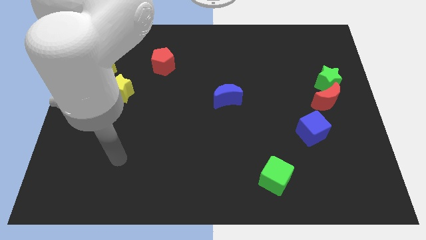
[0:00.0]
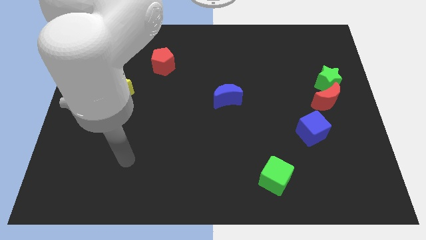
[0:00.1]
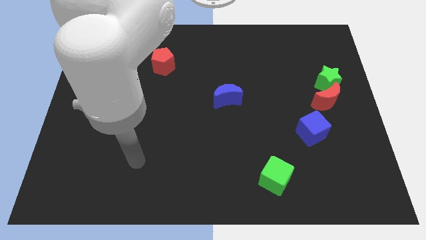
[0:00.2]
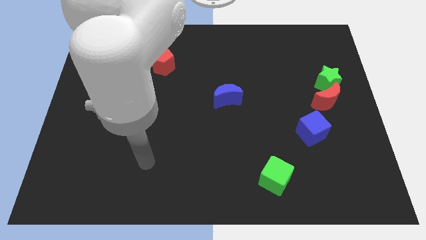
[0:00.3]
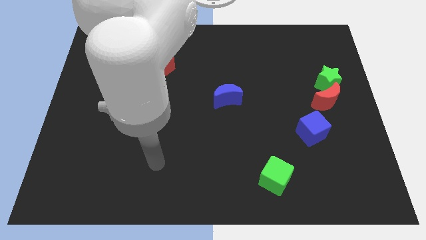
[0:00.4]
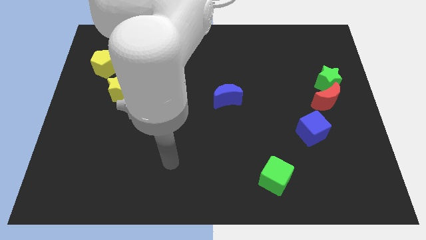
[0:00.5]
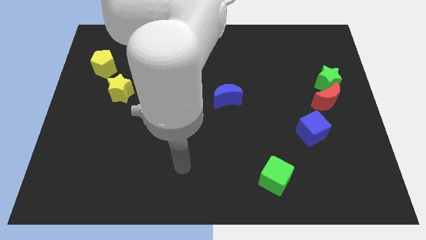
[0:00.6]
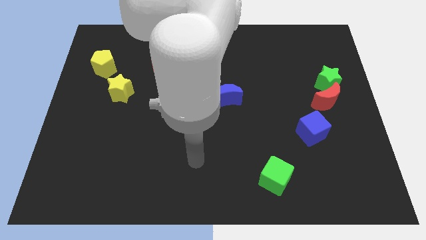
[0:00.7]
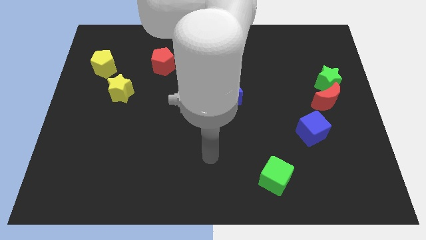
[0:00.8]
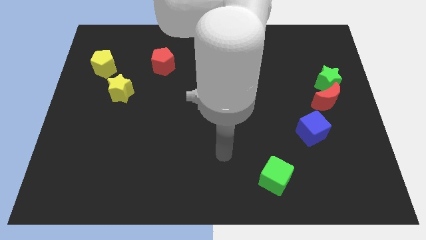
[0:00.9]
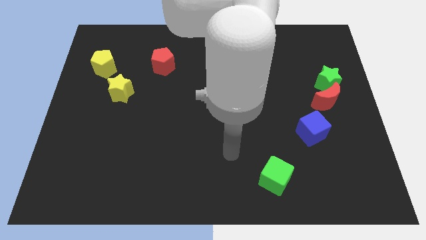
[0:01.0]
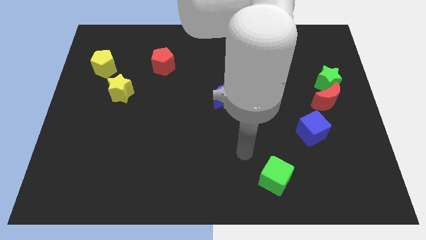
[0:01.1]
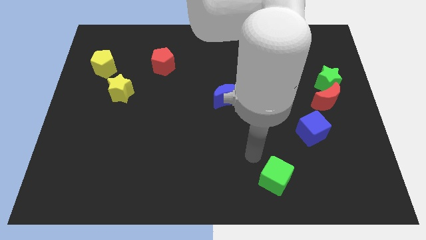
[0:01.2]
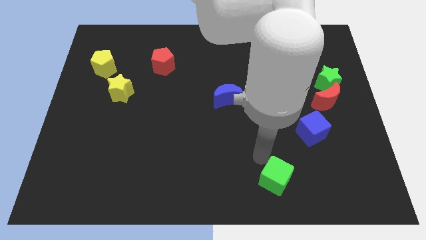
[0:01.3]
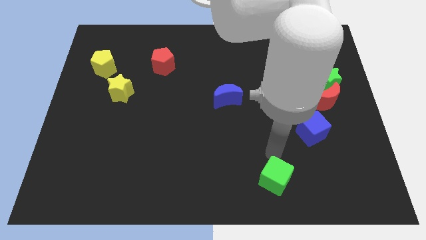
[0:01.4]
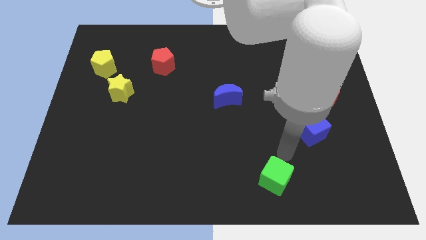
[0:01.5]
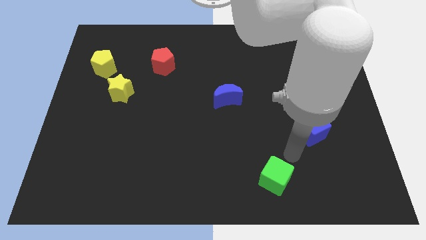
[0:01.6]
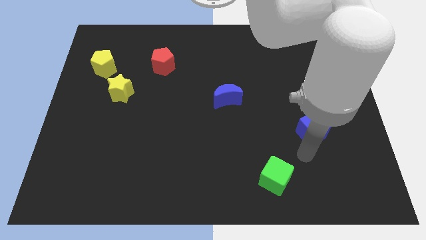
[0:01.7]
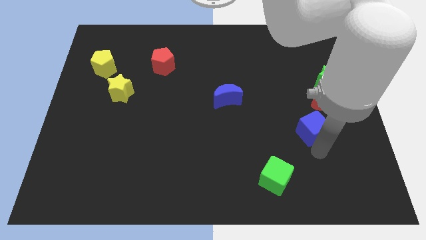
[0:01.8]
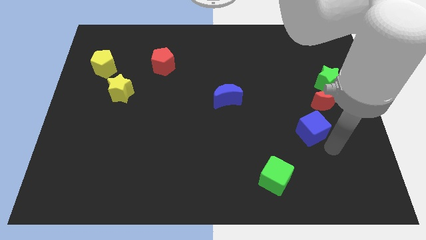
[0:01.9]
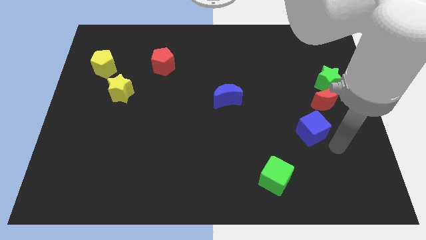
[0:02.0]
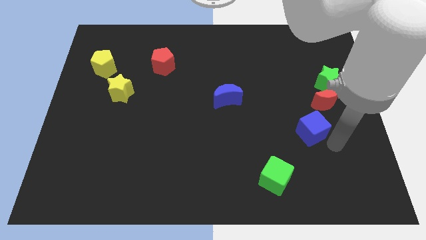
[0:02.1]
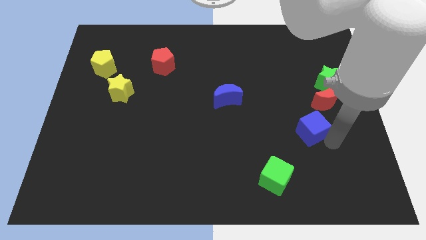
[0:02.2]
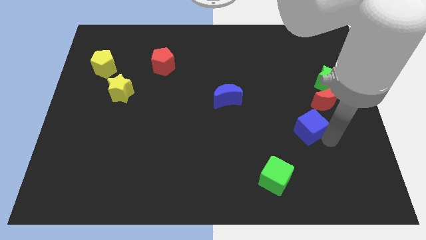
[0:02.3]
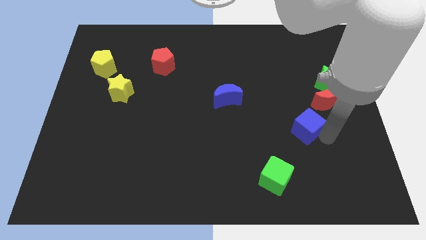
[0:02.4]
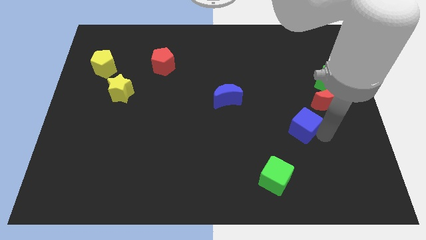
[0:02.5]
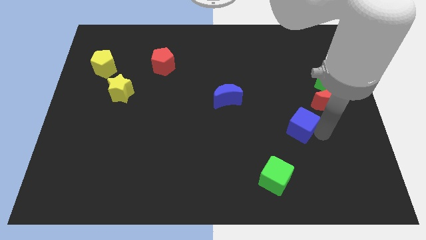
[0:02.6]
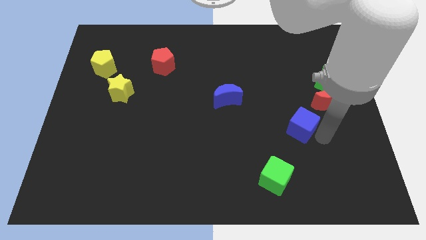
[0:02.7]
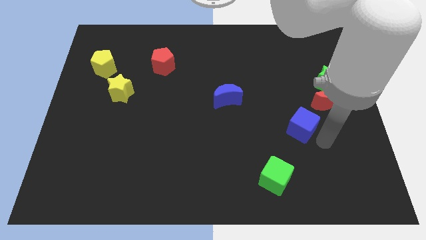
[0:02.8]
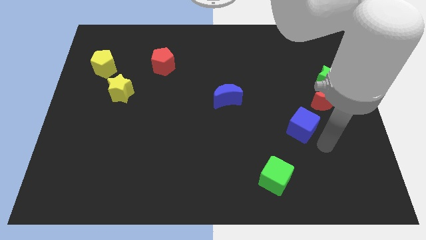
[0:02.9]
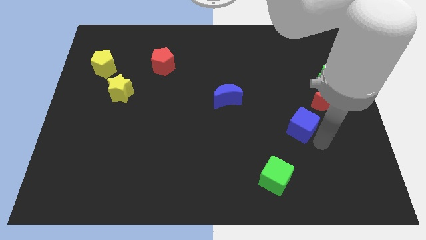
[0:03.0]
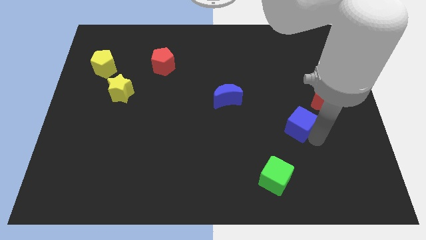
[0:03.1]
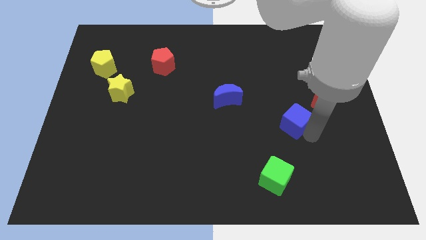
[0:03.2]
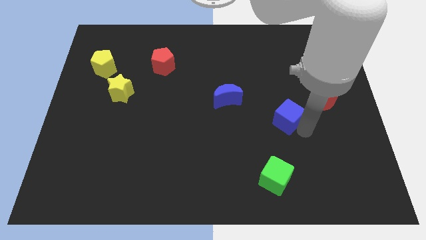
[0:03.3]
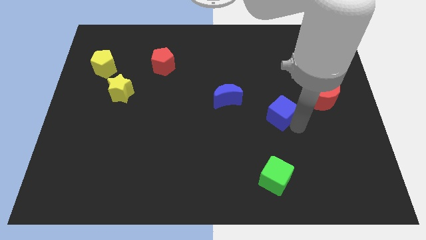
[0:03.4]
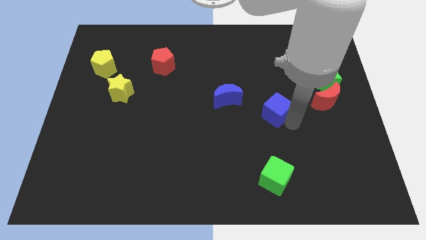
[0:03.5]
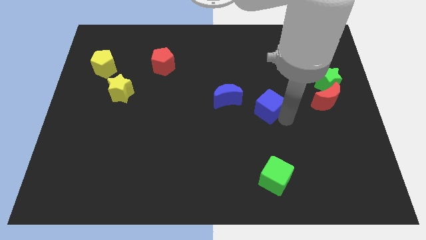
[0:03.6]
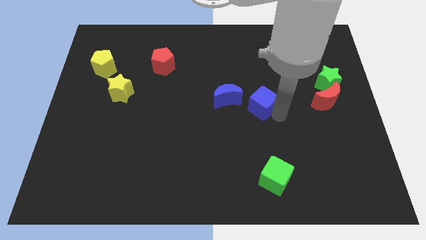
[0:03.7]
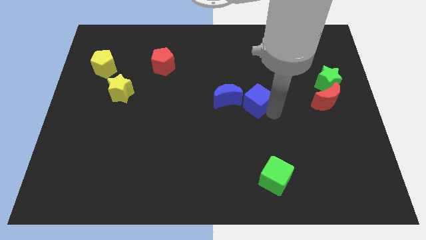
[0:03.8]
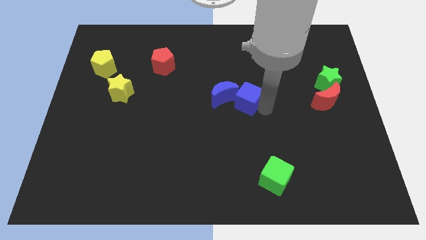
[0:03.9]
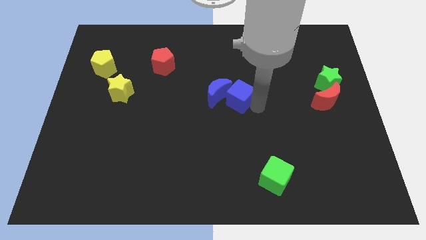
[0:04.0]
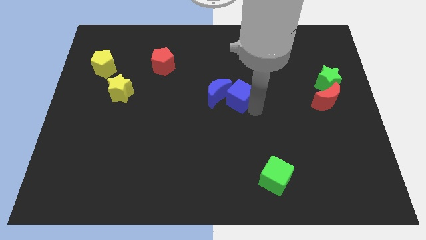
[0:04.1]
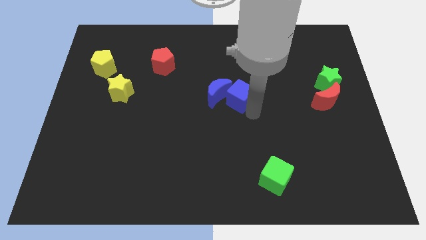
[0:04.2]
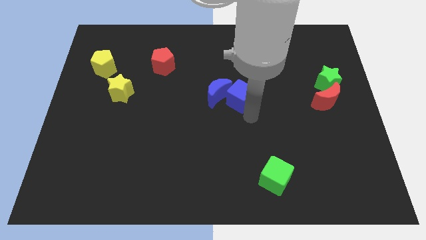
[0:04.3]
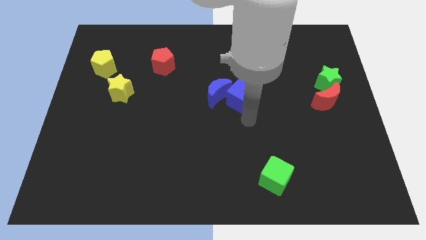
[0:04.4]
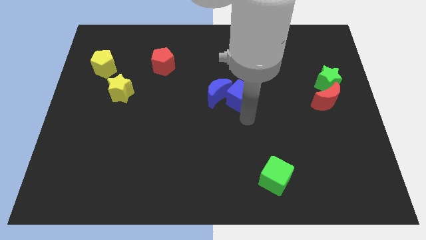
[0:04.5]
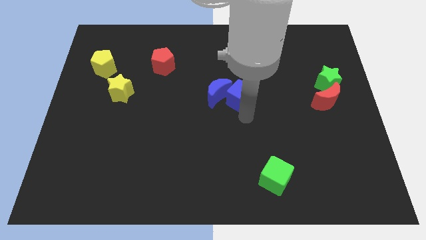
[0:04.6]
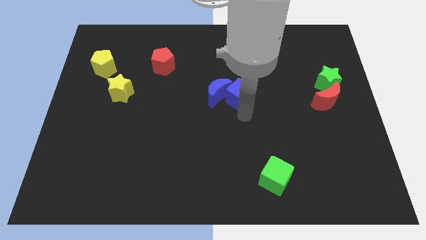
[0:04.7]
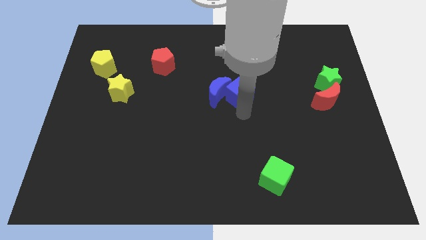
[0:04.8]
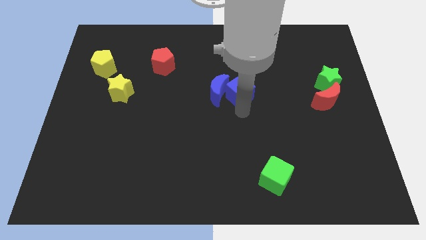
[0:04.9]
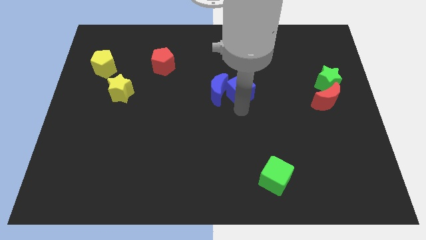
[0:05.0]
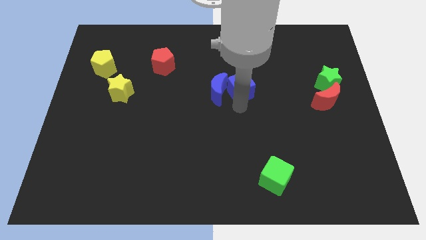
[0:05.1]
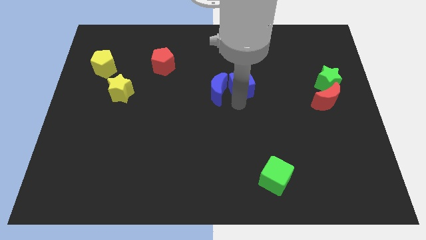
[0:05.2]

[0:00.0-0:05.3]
move the blue cube up and to the left diagonally

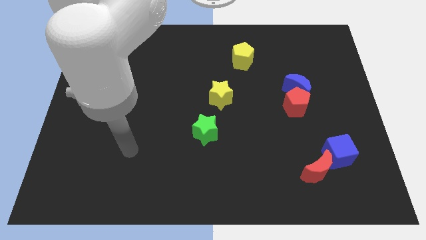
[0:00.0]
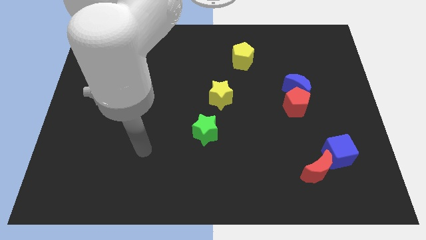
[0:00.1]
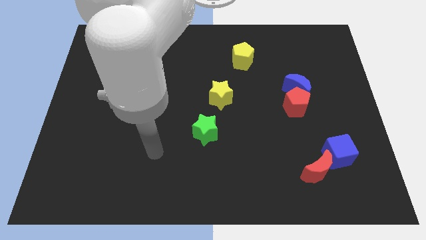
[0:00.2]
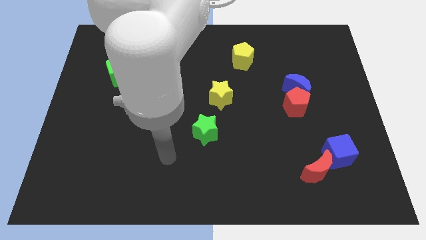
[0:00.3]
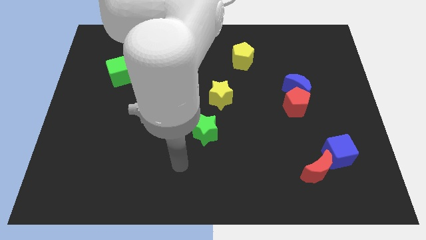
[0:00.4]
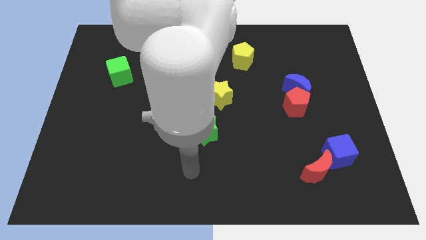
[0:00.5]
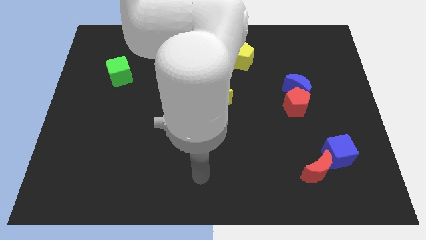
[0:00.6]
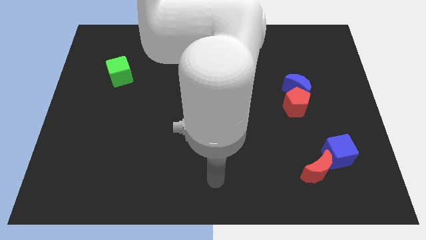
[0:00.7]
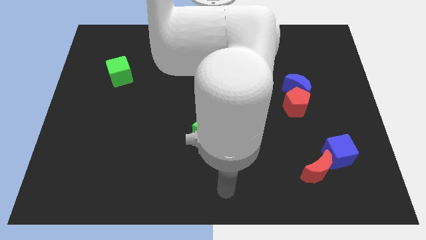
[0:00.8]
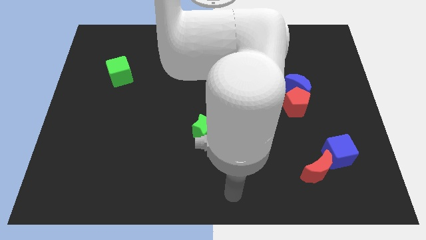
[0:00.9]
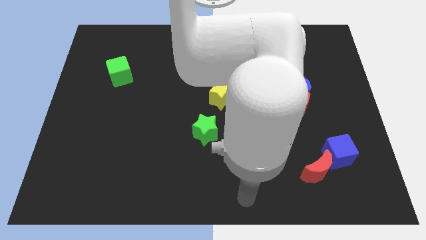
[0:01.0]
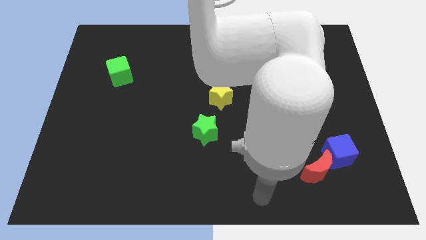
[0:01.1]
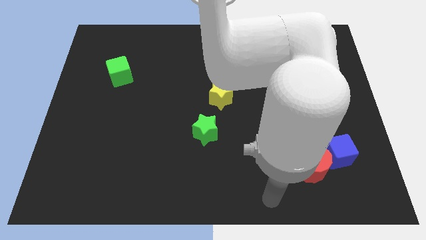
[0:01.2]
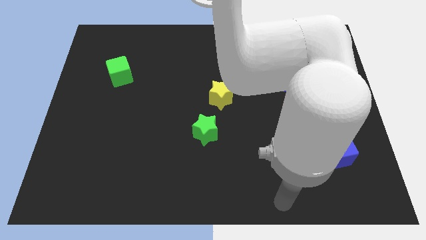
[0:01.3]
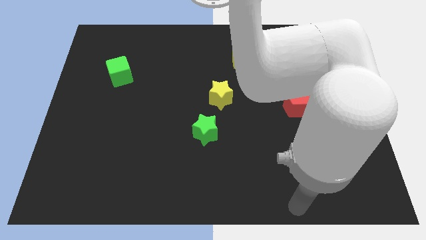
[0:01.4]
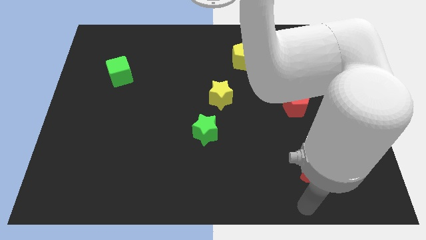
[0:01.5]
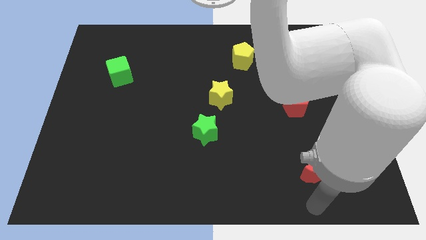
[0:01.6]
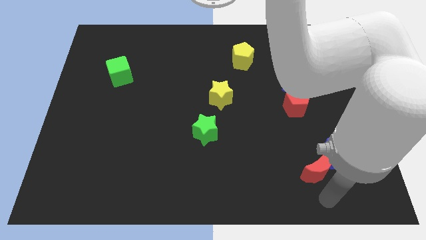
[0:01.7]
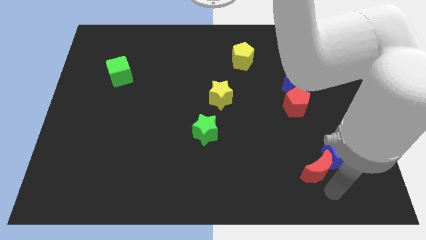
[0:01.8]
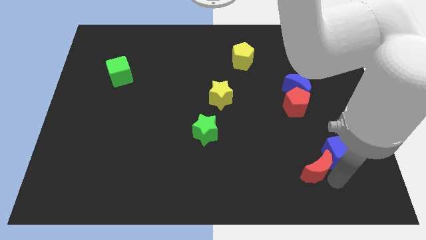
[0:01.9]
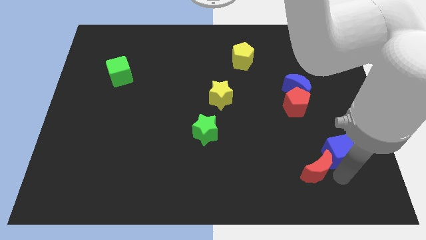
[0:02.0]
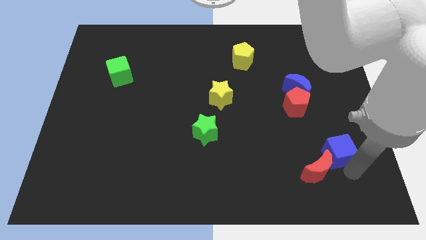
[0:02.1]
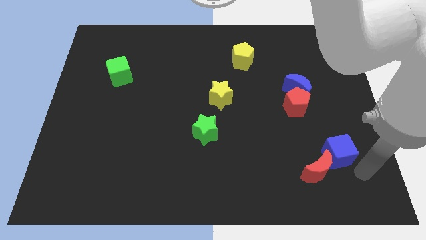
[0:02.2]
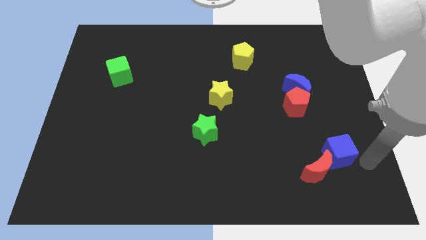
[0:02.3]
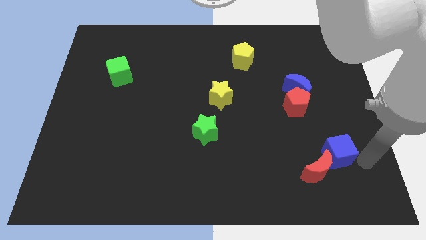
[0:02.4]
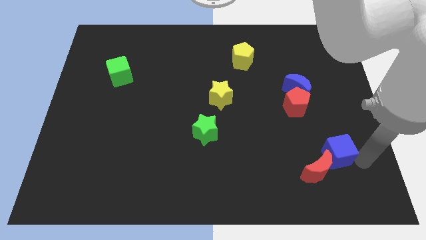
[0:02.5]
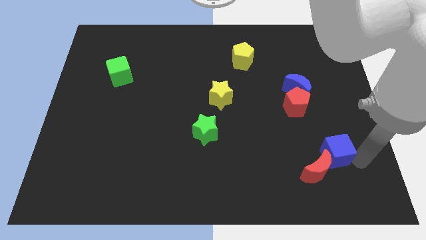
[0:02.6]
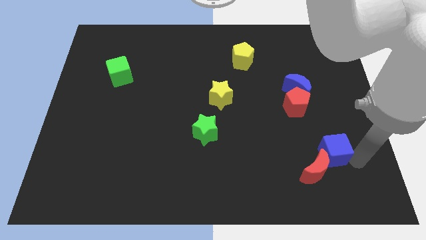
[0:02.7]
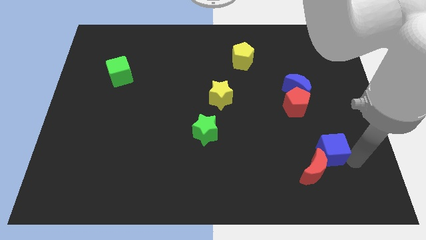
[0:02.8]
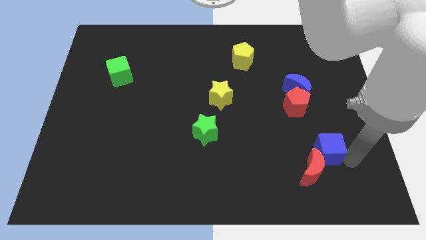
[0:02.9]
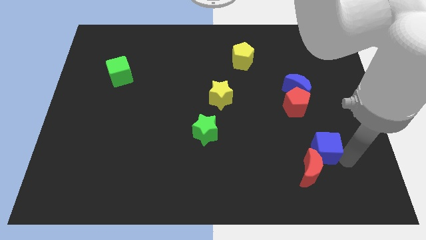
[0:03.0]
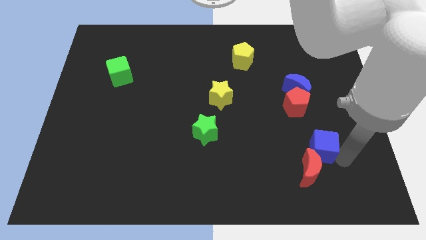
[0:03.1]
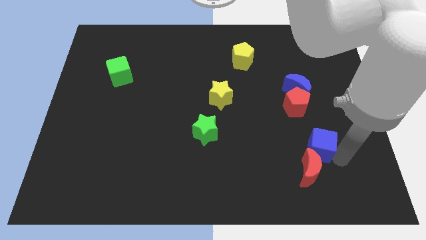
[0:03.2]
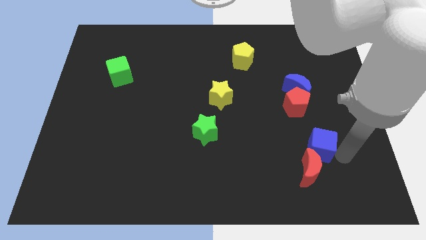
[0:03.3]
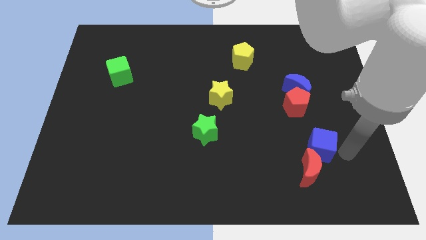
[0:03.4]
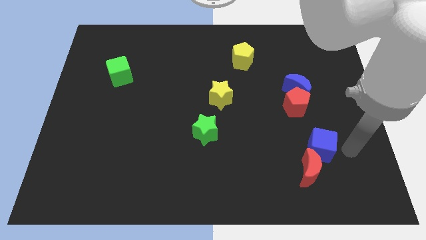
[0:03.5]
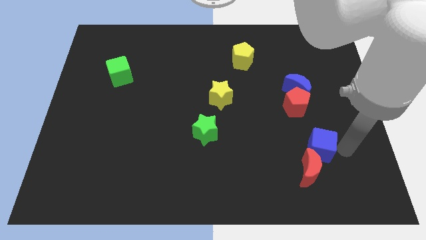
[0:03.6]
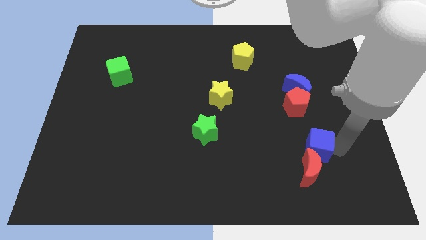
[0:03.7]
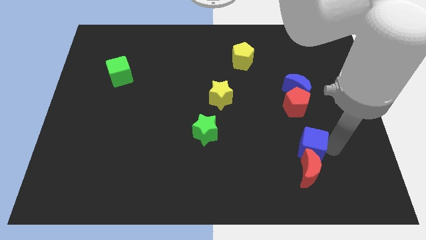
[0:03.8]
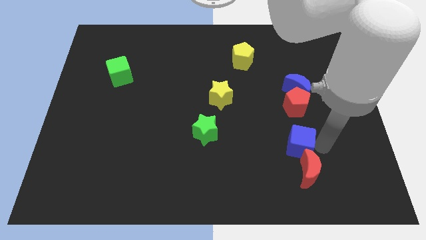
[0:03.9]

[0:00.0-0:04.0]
move the blue cube a little to the left
